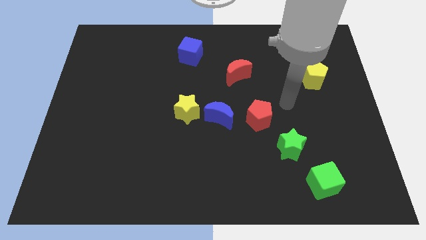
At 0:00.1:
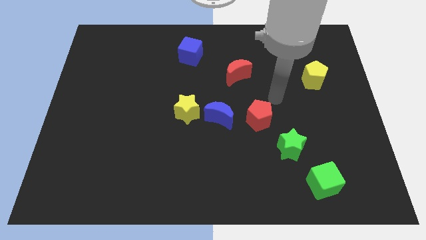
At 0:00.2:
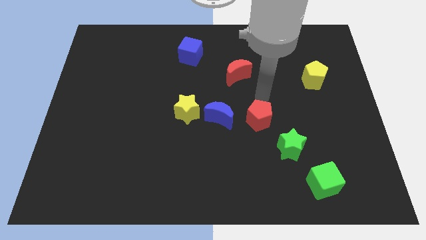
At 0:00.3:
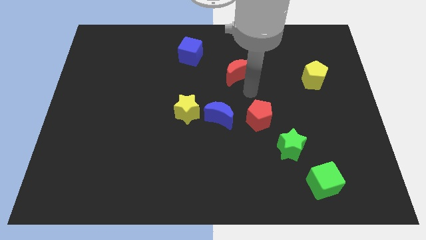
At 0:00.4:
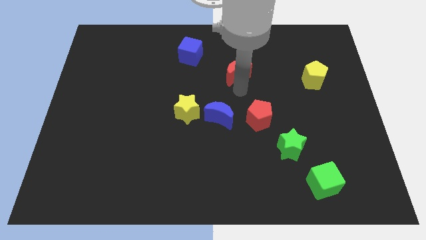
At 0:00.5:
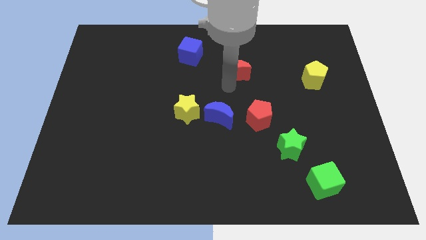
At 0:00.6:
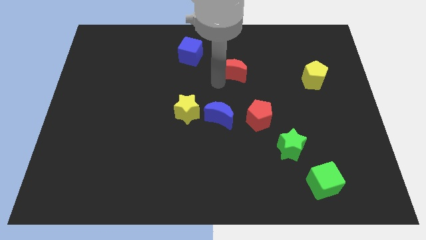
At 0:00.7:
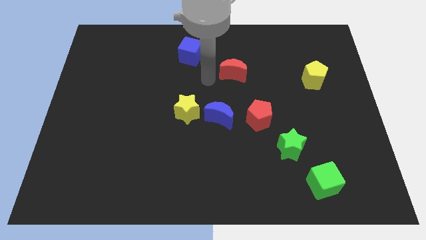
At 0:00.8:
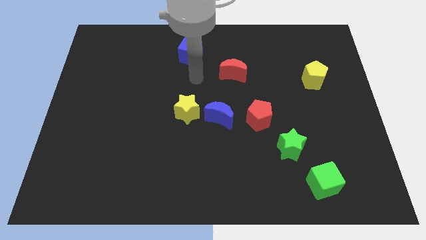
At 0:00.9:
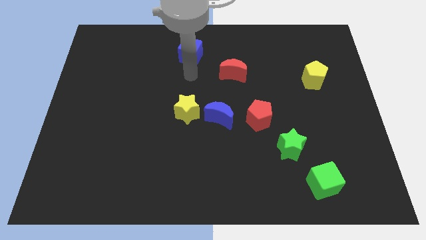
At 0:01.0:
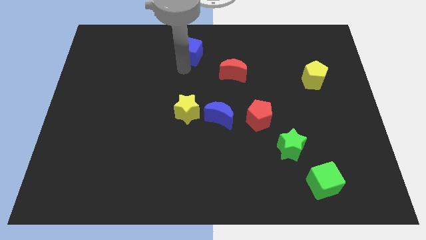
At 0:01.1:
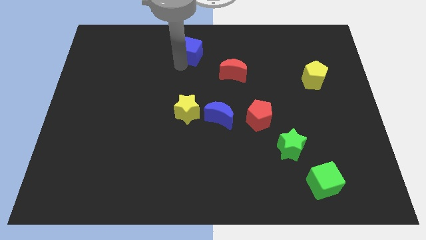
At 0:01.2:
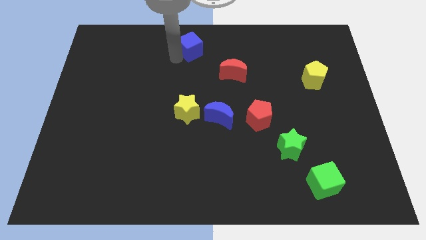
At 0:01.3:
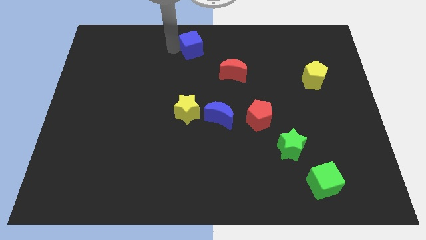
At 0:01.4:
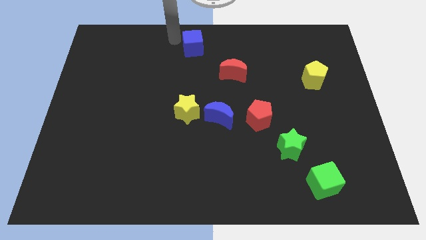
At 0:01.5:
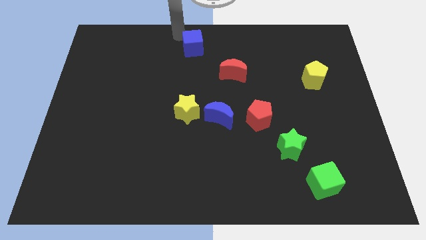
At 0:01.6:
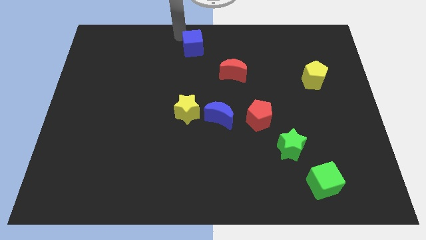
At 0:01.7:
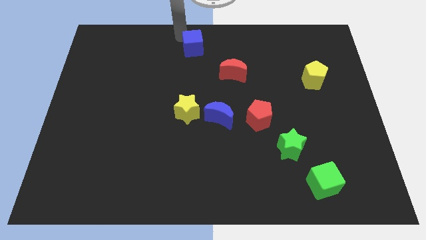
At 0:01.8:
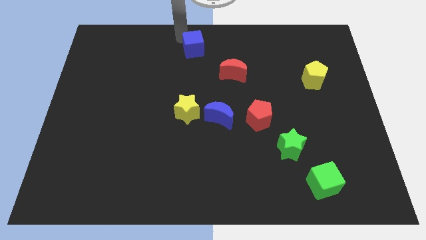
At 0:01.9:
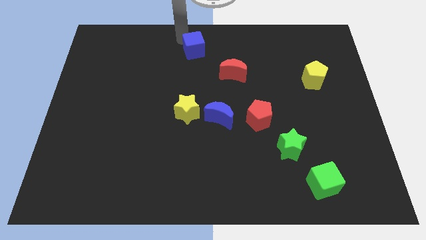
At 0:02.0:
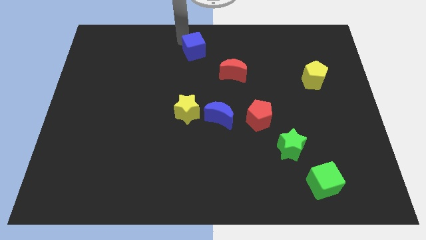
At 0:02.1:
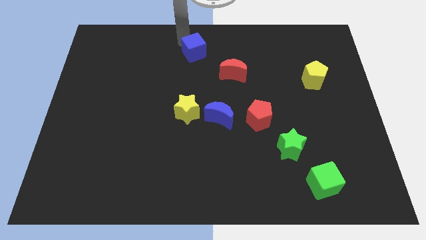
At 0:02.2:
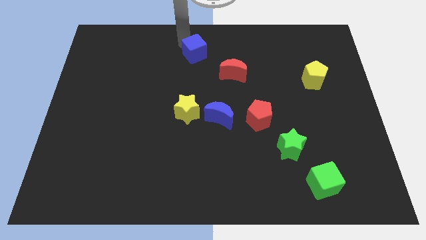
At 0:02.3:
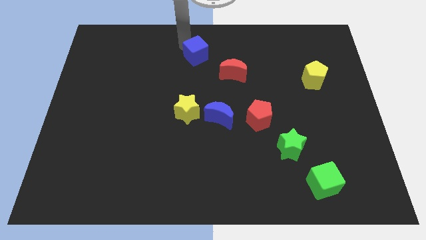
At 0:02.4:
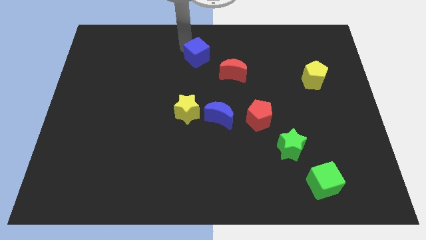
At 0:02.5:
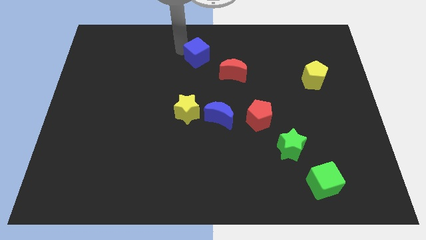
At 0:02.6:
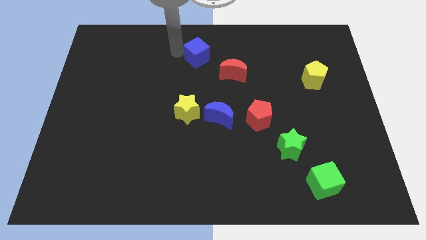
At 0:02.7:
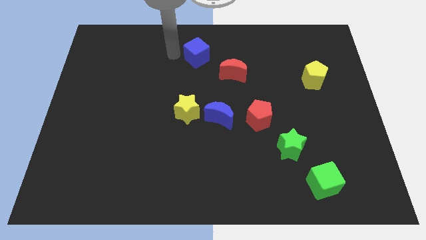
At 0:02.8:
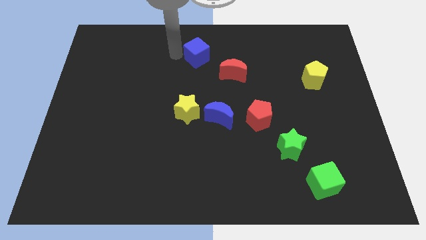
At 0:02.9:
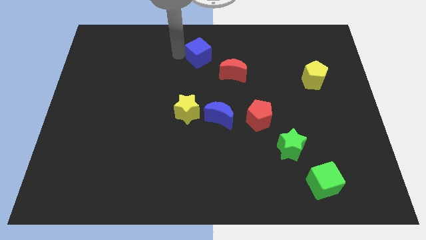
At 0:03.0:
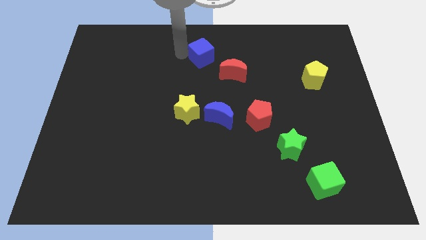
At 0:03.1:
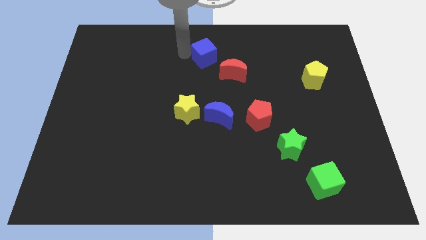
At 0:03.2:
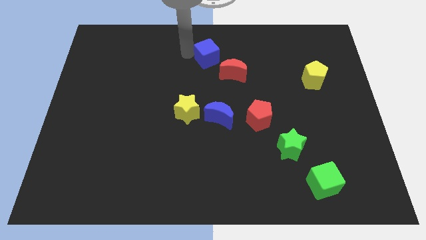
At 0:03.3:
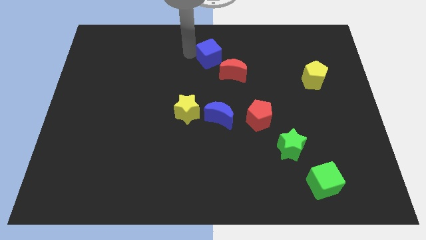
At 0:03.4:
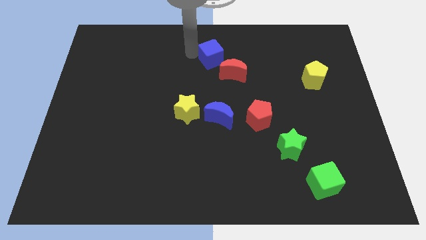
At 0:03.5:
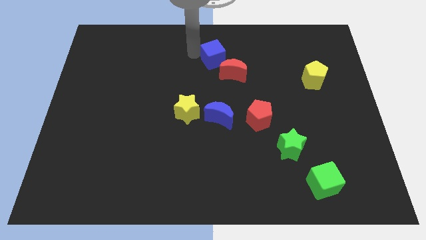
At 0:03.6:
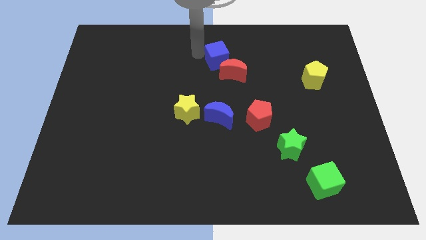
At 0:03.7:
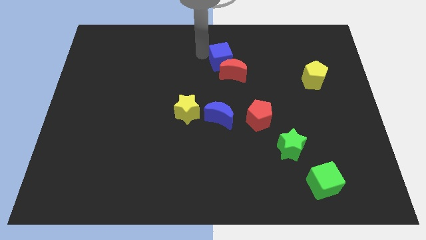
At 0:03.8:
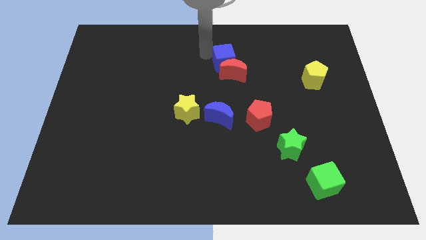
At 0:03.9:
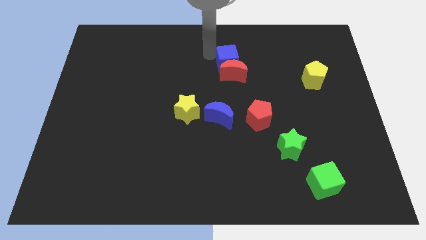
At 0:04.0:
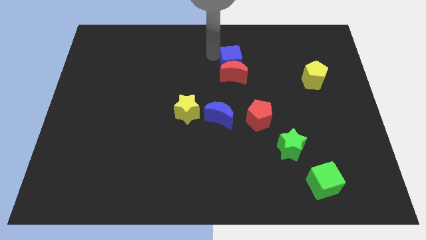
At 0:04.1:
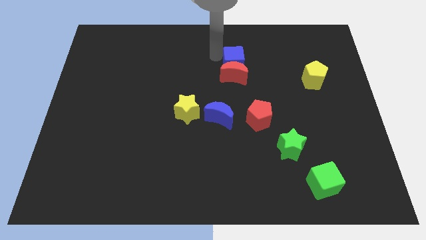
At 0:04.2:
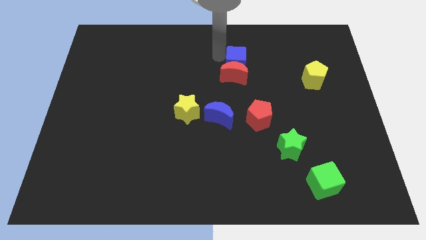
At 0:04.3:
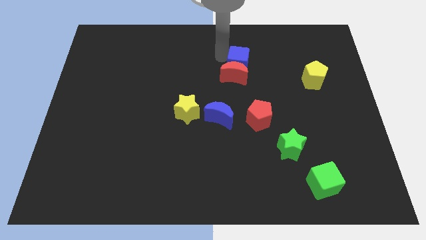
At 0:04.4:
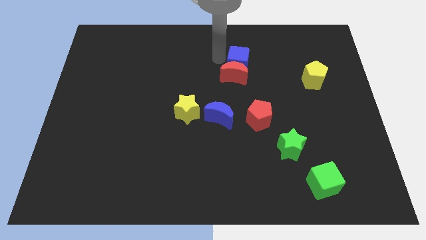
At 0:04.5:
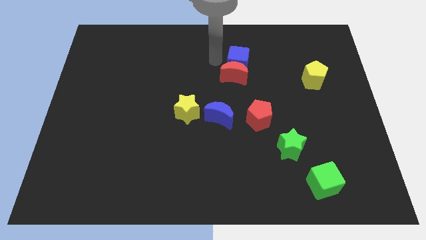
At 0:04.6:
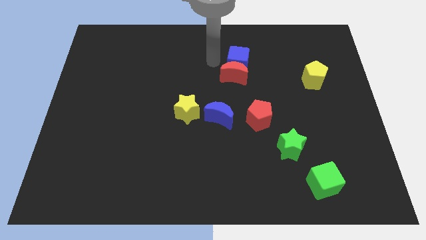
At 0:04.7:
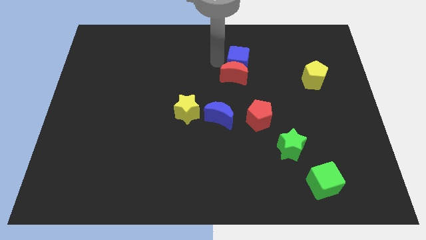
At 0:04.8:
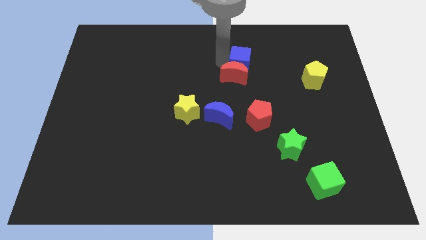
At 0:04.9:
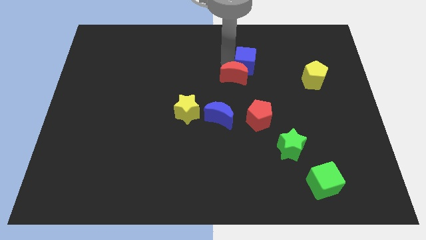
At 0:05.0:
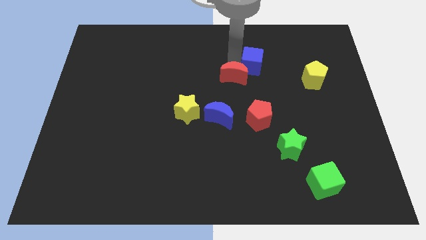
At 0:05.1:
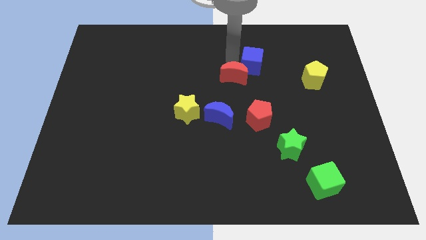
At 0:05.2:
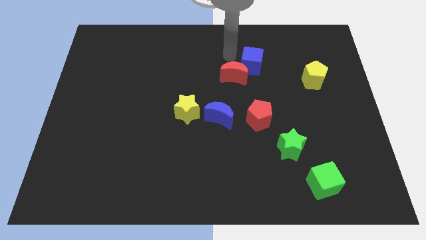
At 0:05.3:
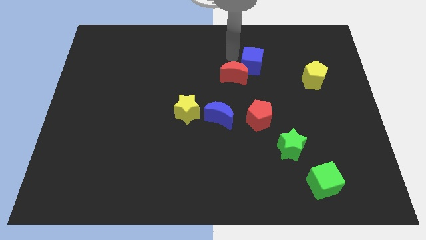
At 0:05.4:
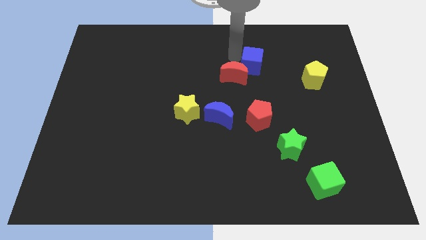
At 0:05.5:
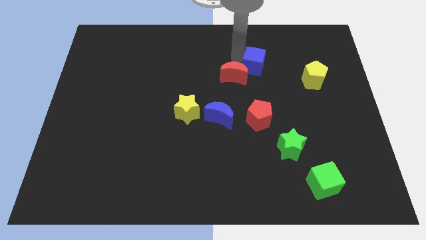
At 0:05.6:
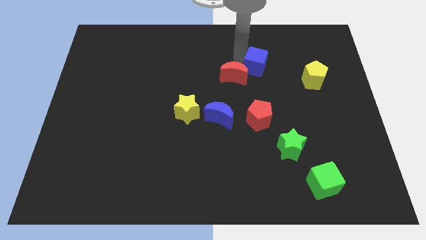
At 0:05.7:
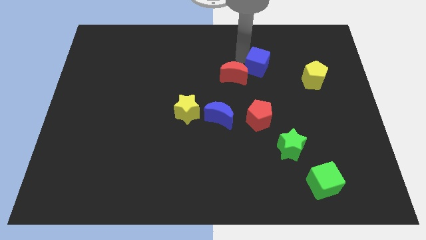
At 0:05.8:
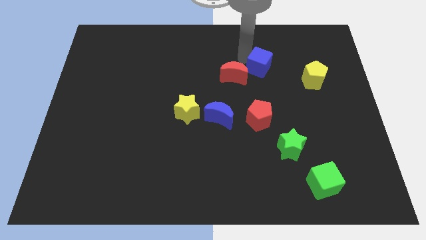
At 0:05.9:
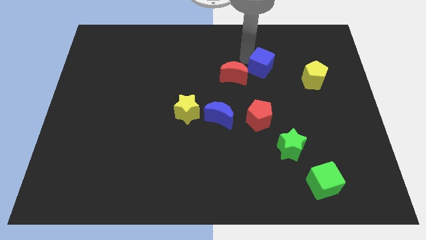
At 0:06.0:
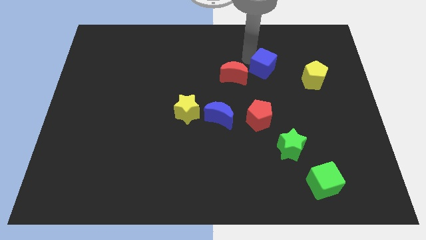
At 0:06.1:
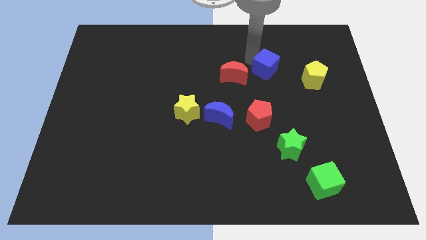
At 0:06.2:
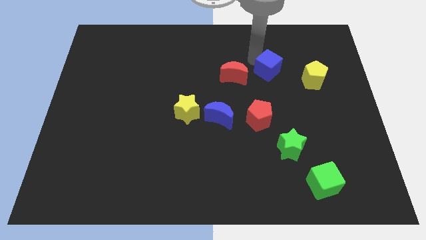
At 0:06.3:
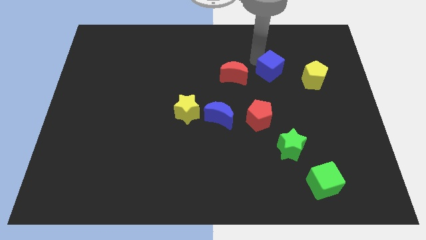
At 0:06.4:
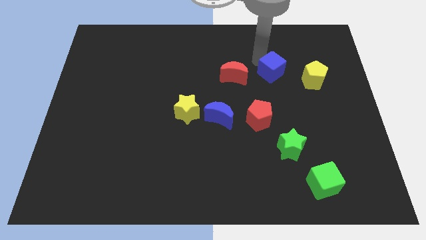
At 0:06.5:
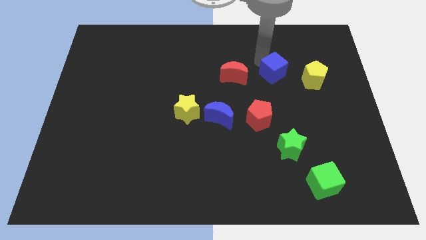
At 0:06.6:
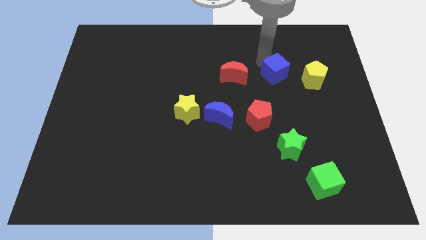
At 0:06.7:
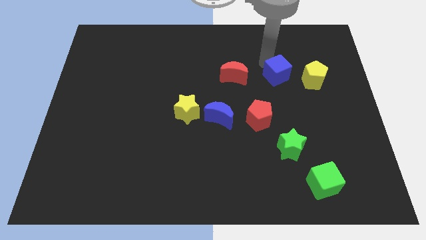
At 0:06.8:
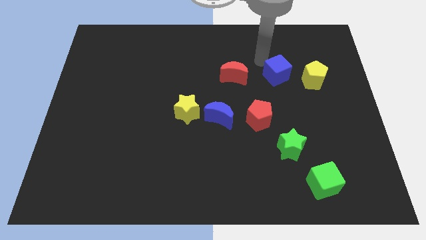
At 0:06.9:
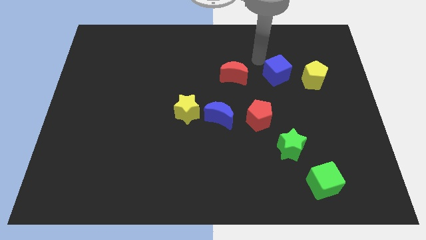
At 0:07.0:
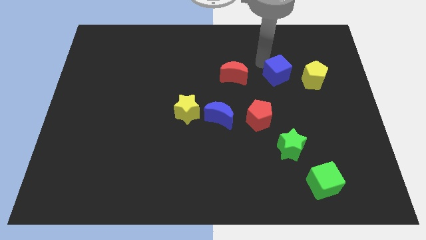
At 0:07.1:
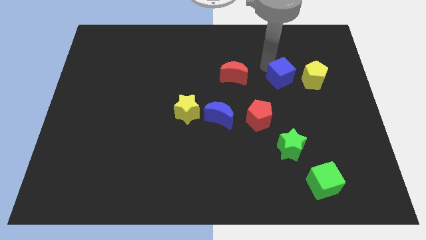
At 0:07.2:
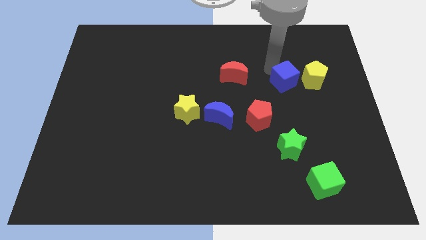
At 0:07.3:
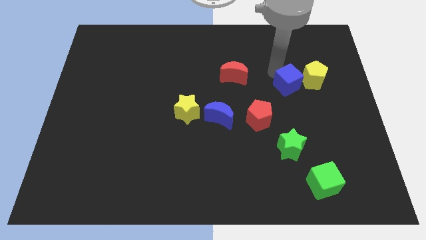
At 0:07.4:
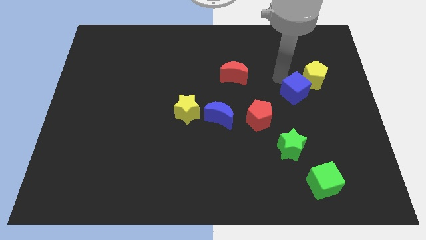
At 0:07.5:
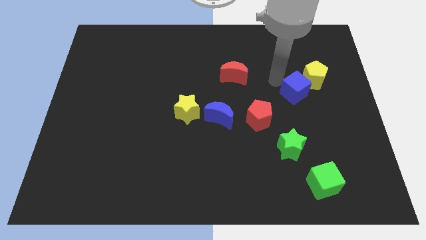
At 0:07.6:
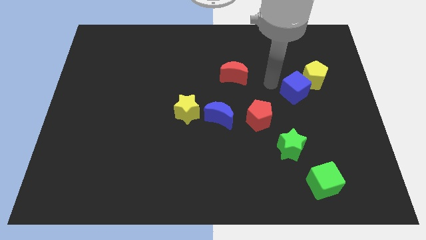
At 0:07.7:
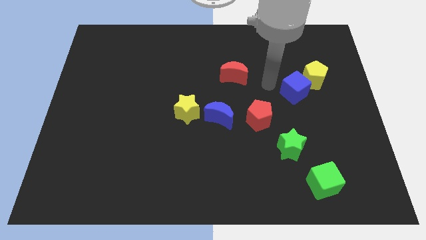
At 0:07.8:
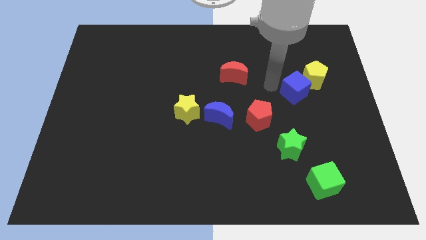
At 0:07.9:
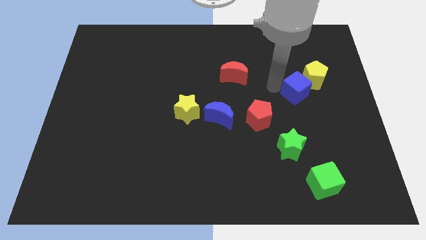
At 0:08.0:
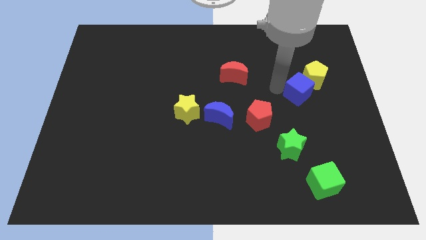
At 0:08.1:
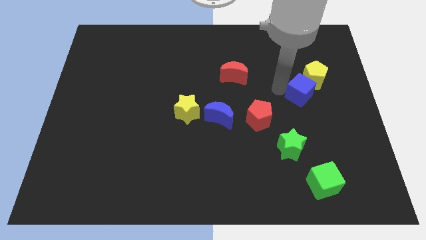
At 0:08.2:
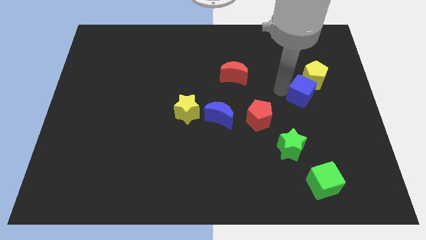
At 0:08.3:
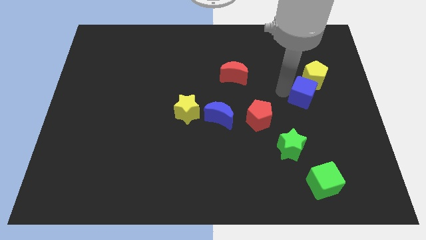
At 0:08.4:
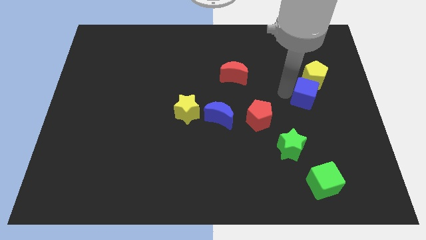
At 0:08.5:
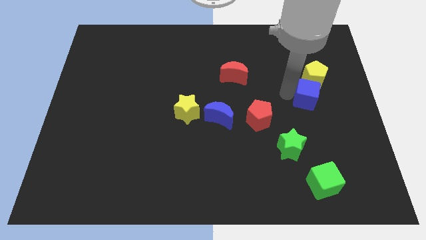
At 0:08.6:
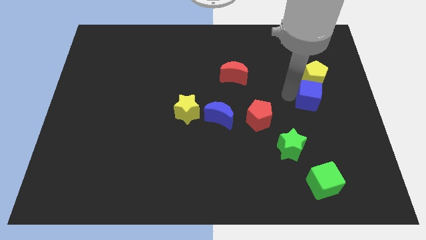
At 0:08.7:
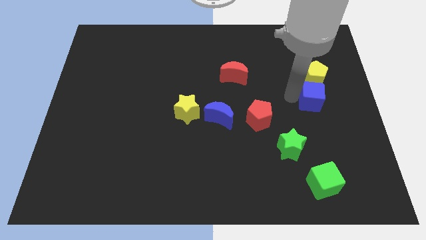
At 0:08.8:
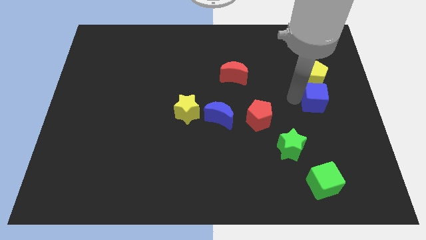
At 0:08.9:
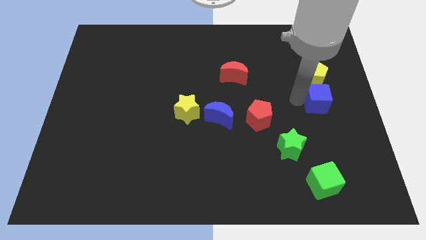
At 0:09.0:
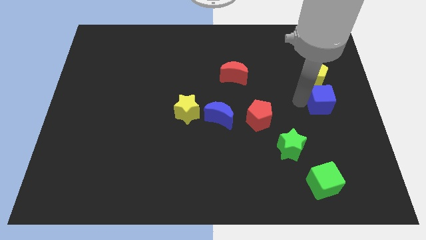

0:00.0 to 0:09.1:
put the blue cube to the right side of the board
